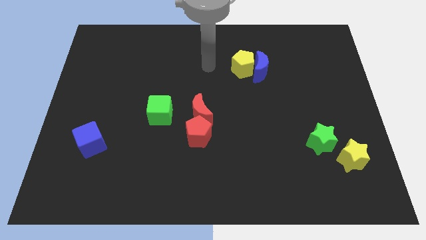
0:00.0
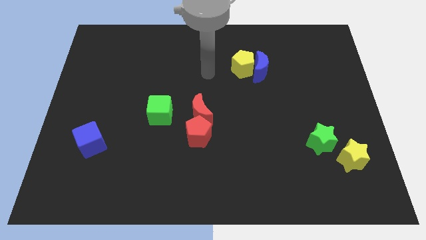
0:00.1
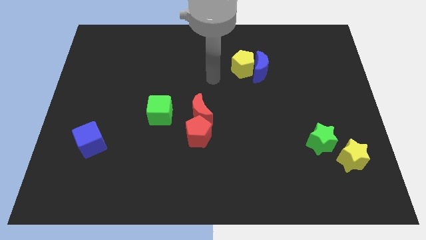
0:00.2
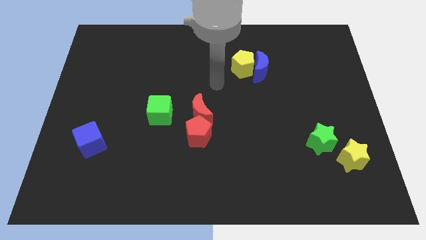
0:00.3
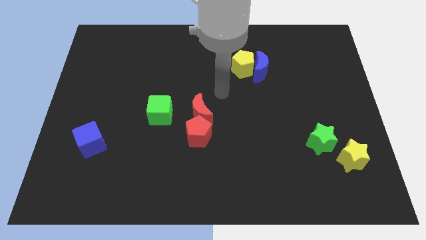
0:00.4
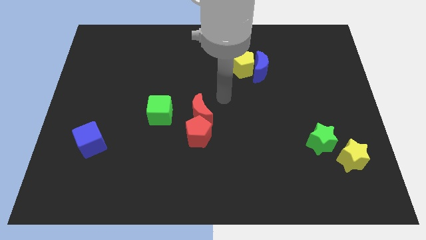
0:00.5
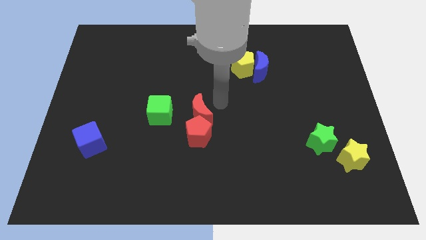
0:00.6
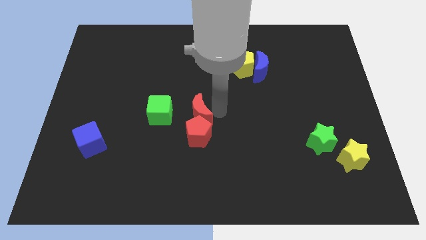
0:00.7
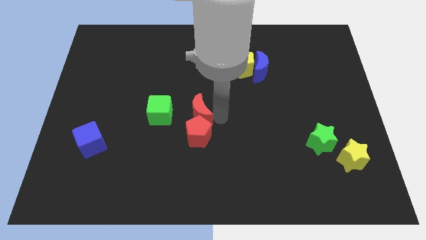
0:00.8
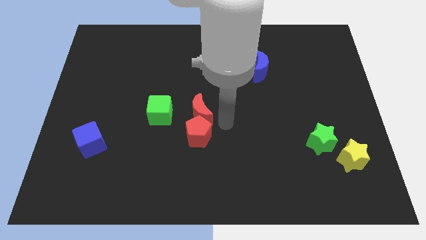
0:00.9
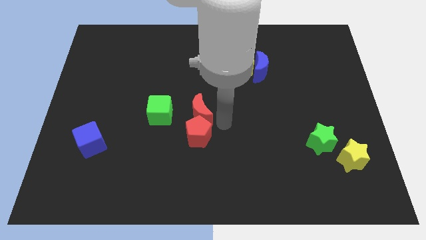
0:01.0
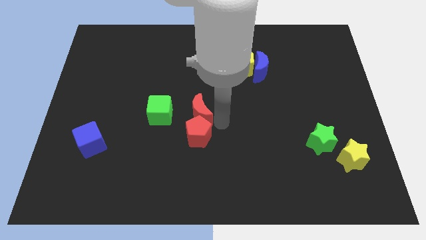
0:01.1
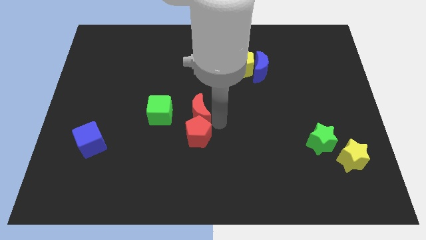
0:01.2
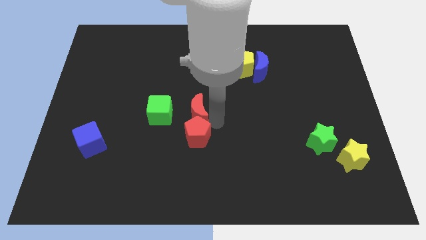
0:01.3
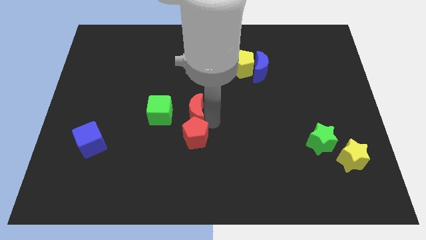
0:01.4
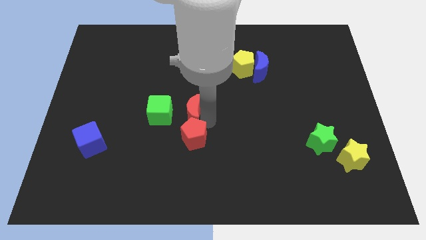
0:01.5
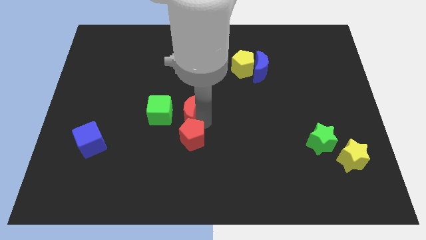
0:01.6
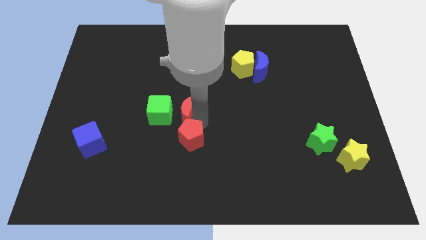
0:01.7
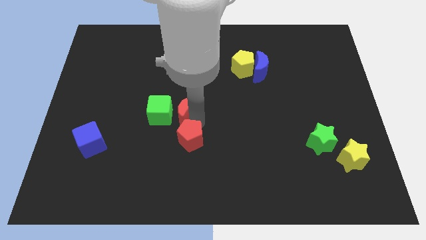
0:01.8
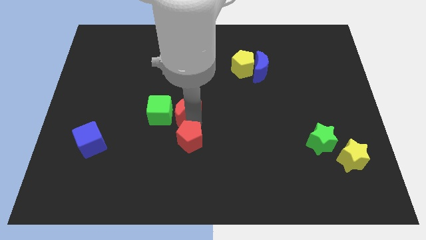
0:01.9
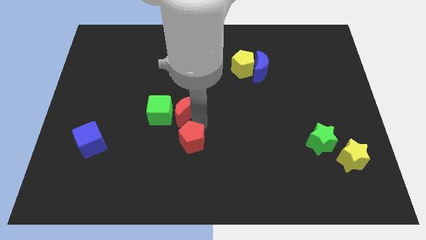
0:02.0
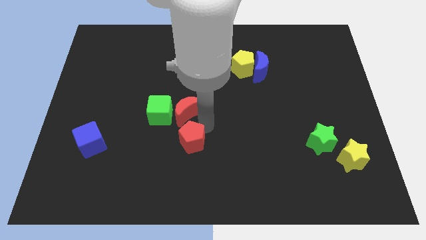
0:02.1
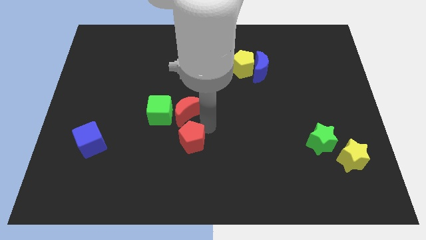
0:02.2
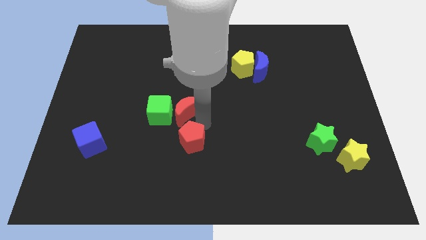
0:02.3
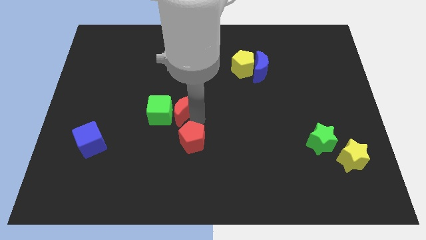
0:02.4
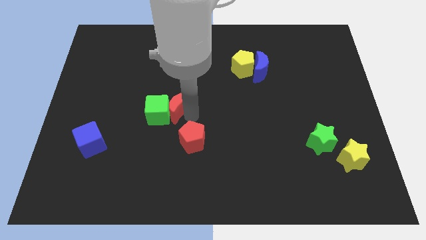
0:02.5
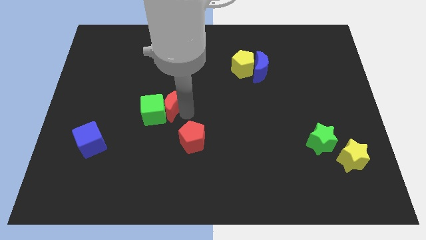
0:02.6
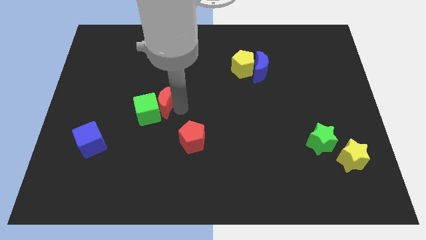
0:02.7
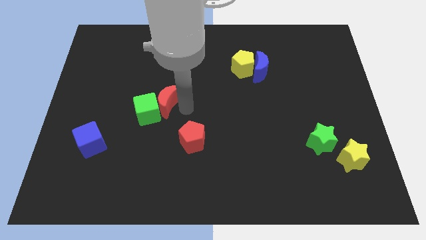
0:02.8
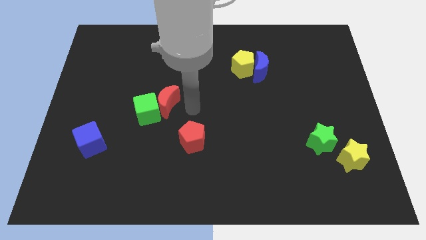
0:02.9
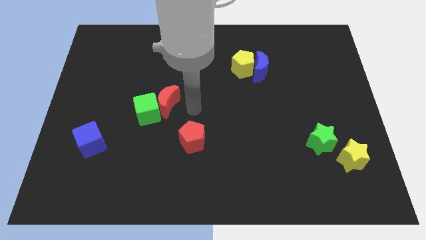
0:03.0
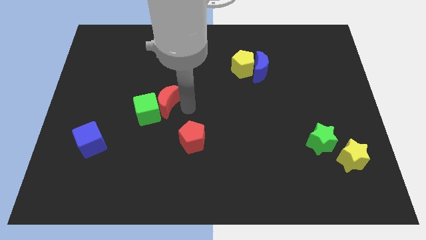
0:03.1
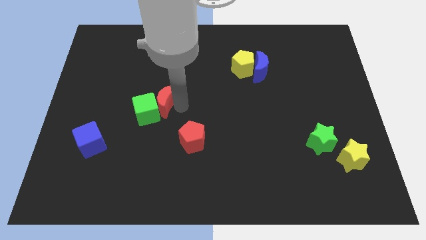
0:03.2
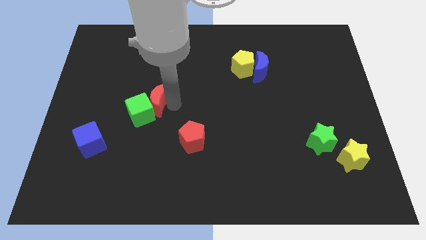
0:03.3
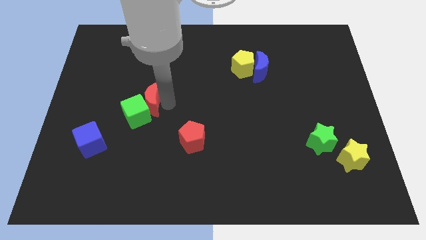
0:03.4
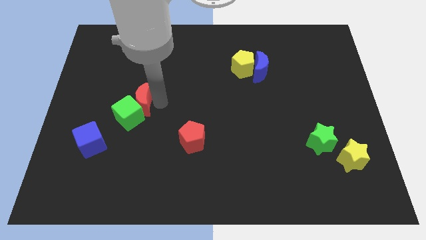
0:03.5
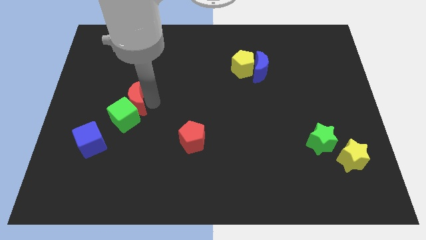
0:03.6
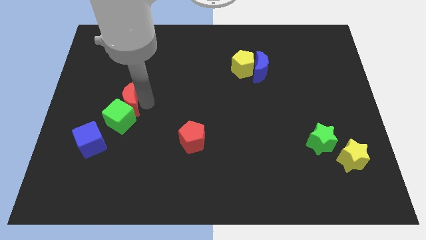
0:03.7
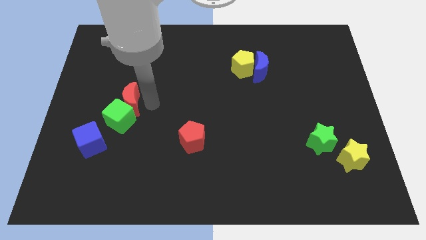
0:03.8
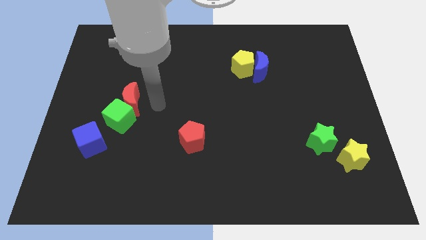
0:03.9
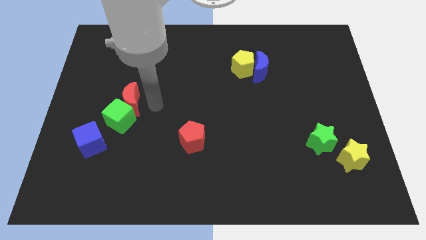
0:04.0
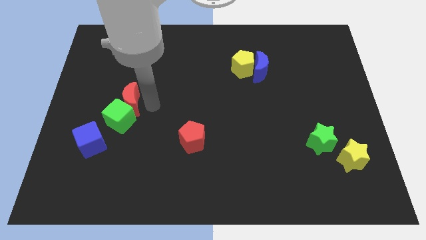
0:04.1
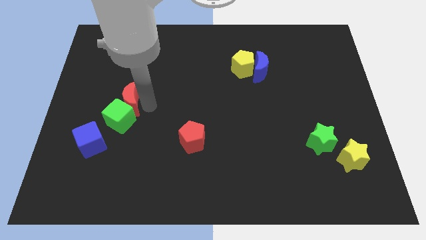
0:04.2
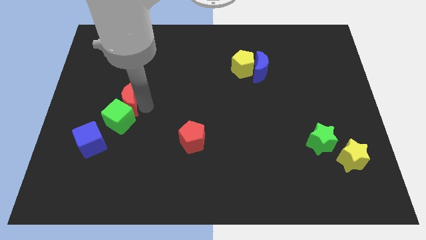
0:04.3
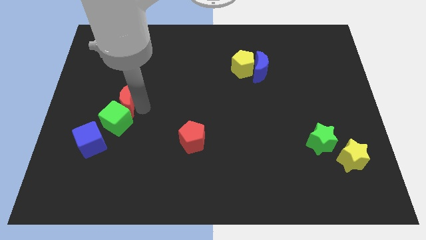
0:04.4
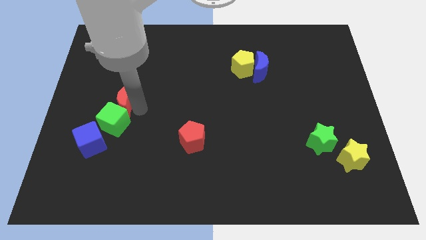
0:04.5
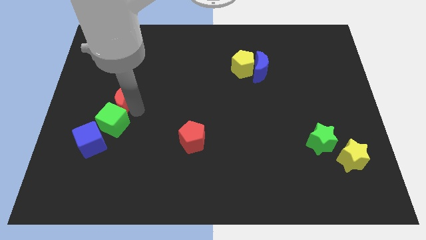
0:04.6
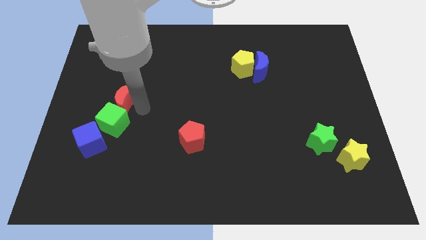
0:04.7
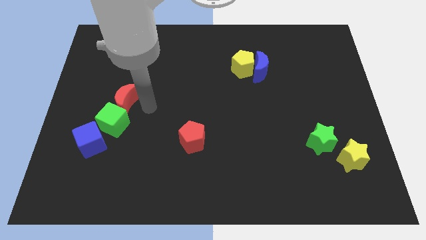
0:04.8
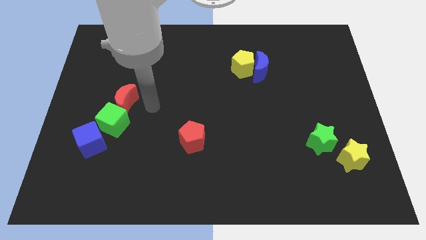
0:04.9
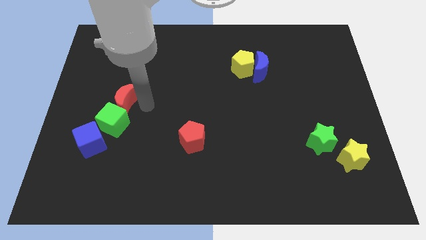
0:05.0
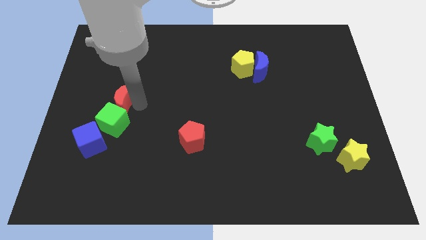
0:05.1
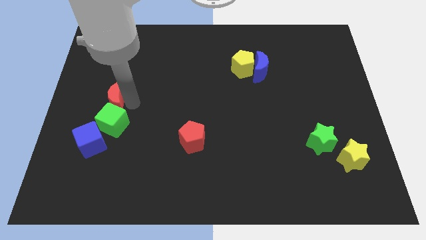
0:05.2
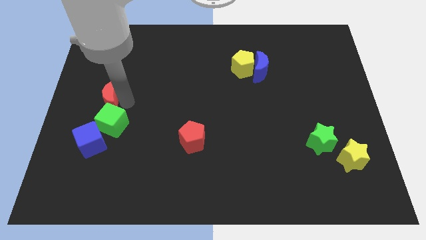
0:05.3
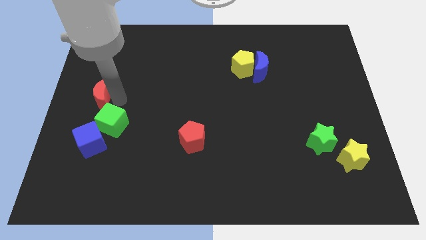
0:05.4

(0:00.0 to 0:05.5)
slide the red moon to the center left
